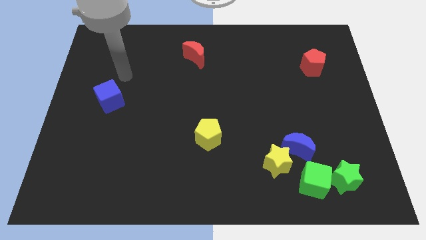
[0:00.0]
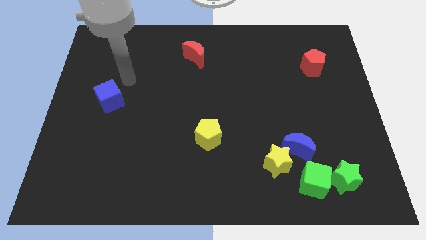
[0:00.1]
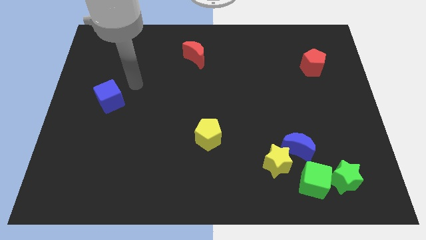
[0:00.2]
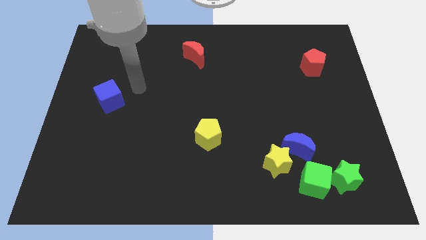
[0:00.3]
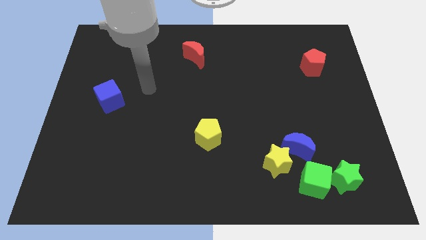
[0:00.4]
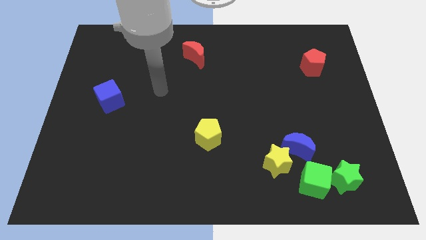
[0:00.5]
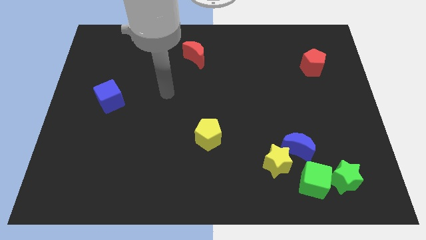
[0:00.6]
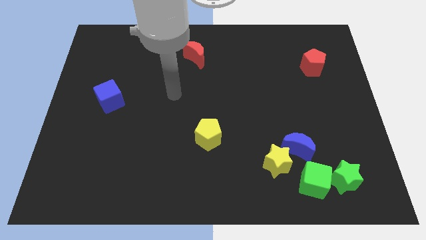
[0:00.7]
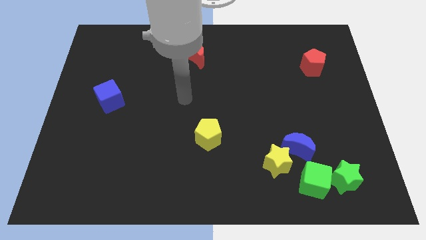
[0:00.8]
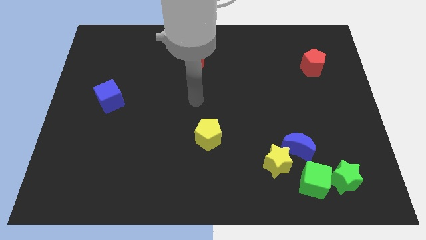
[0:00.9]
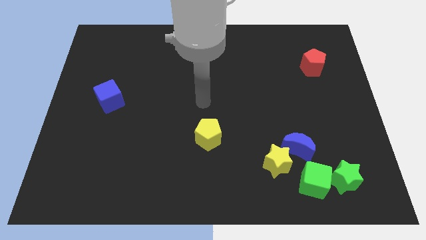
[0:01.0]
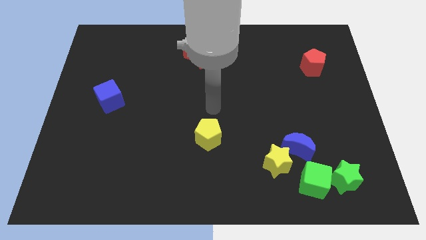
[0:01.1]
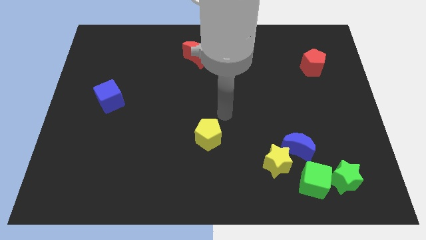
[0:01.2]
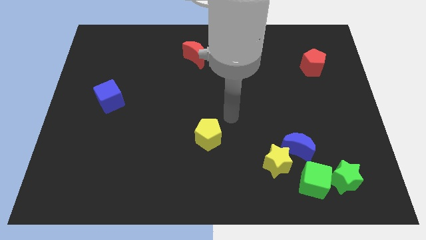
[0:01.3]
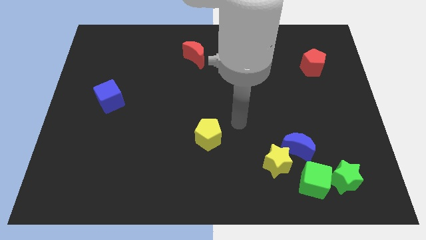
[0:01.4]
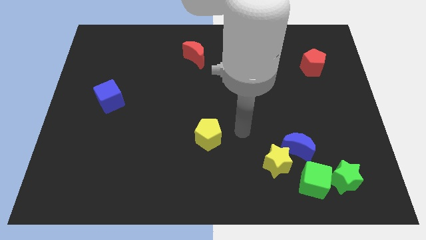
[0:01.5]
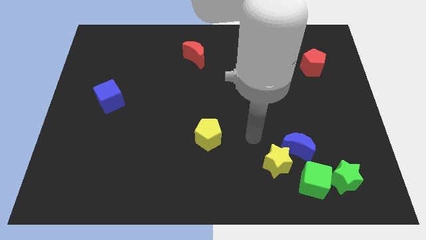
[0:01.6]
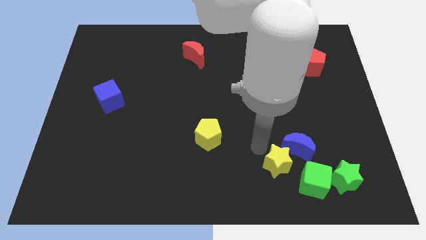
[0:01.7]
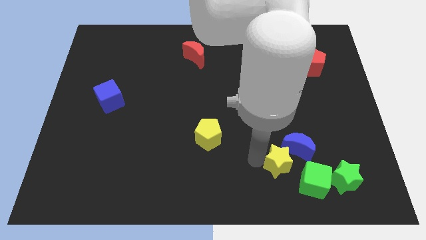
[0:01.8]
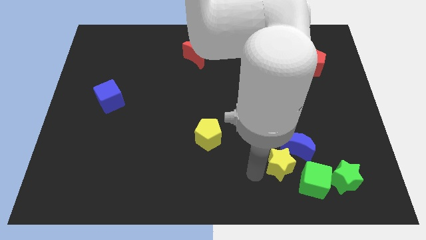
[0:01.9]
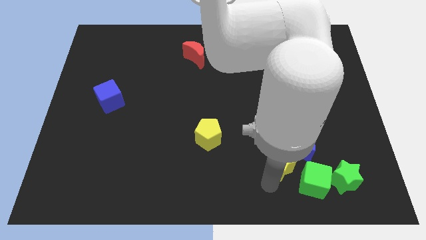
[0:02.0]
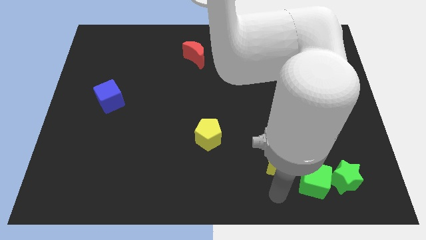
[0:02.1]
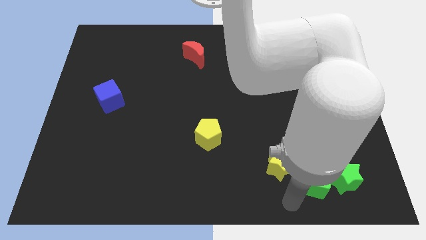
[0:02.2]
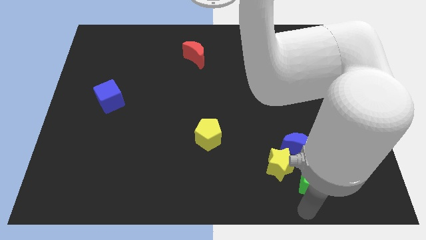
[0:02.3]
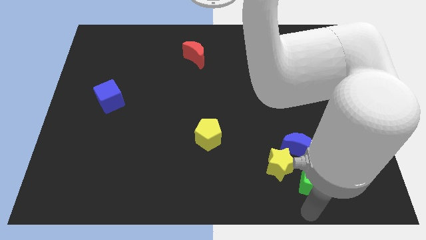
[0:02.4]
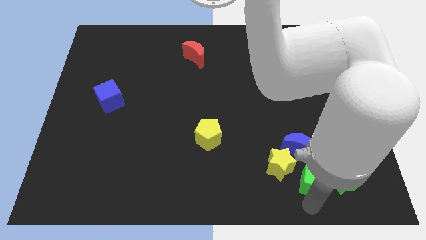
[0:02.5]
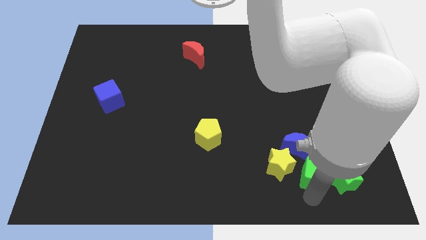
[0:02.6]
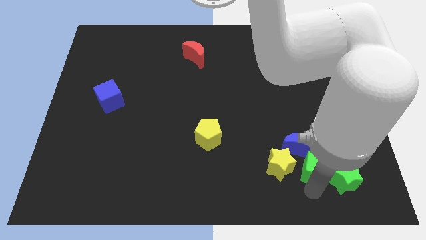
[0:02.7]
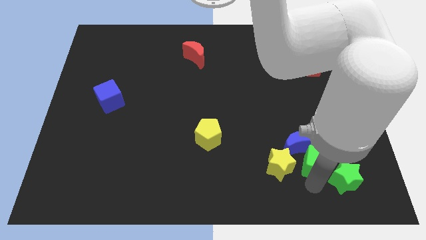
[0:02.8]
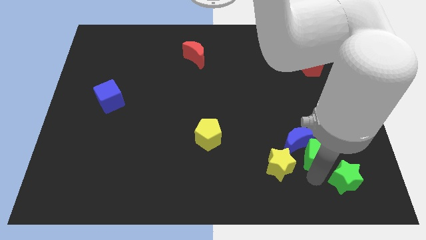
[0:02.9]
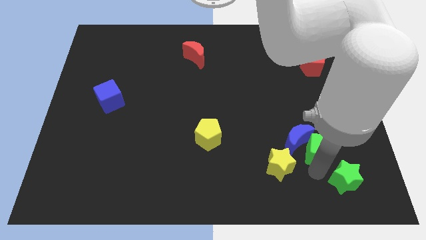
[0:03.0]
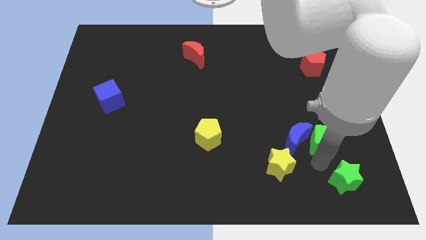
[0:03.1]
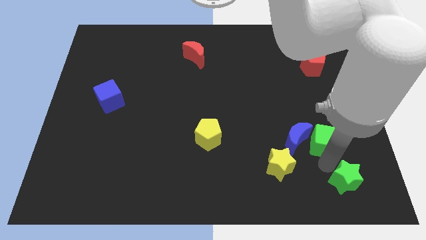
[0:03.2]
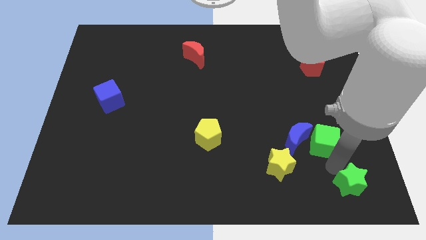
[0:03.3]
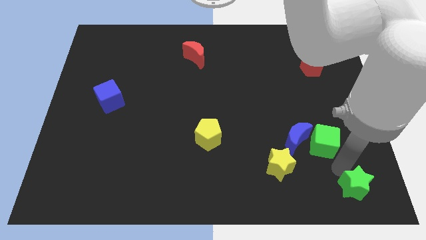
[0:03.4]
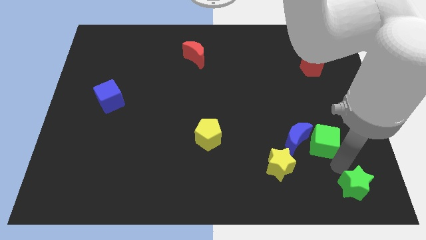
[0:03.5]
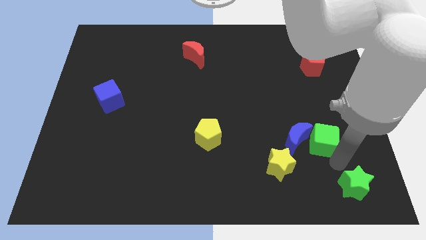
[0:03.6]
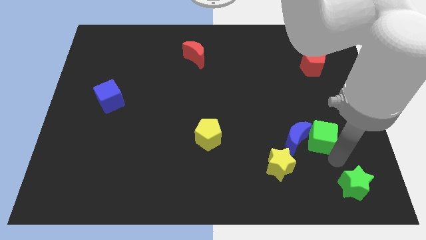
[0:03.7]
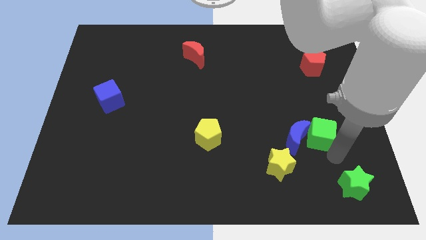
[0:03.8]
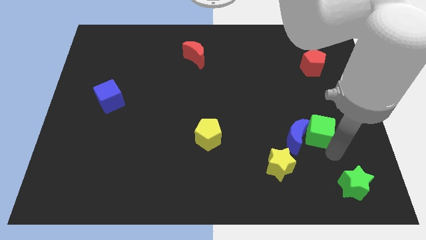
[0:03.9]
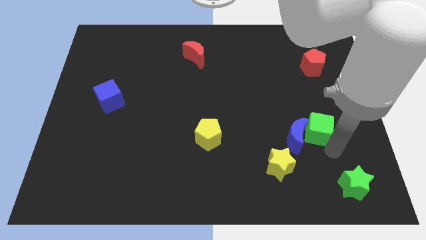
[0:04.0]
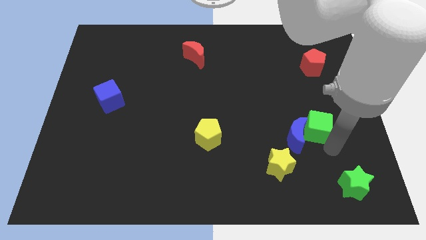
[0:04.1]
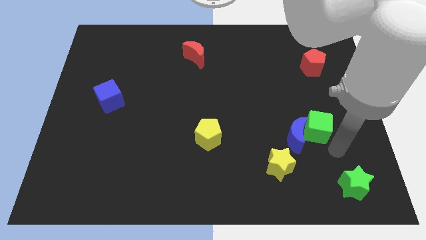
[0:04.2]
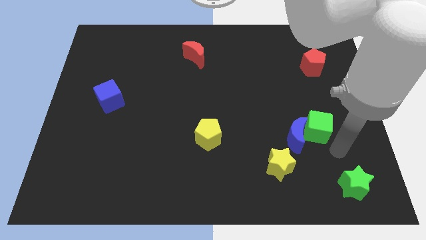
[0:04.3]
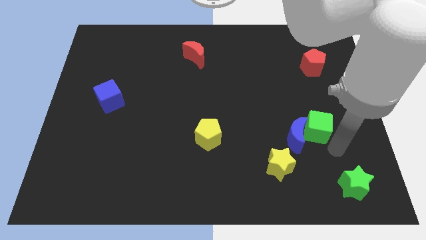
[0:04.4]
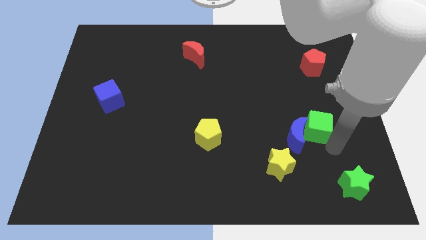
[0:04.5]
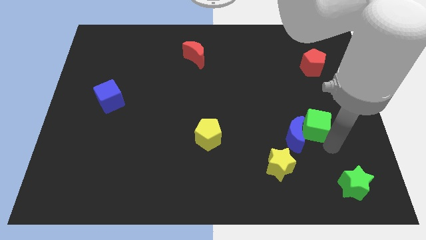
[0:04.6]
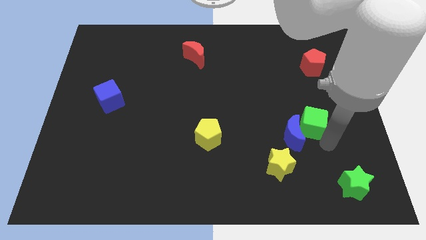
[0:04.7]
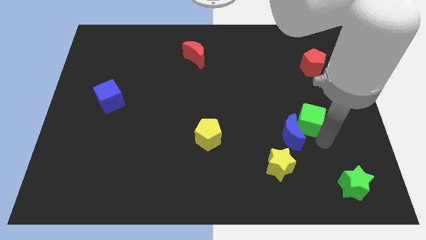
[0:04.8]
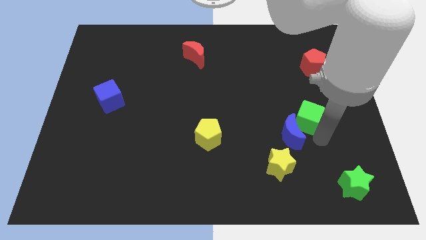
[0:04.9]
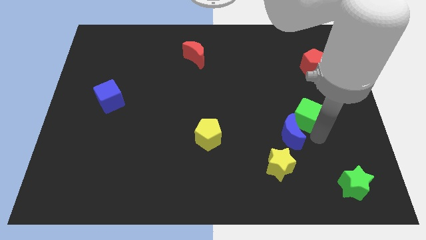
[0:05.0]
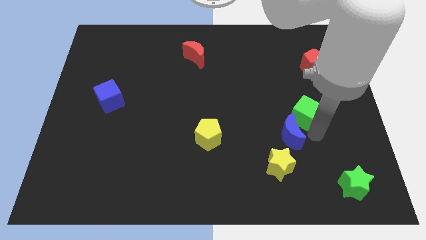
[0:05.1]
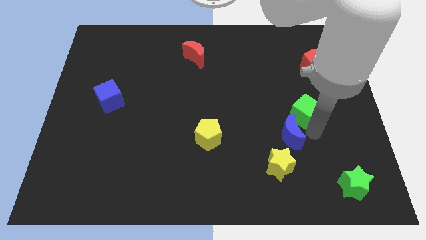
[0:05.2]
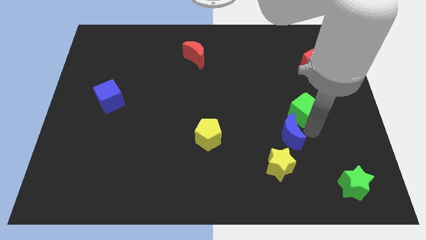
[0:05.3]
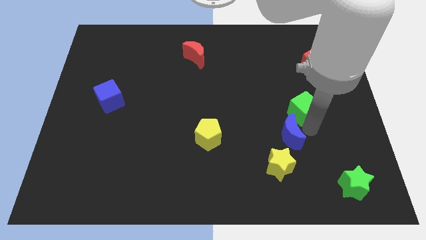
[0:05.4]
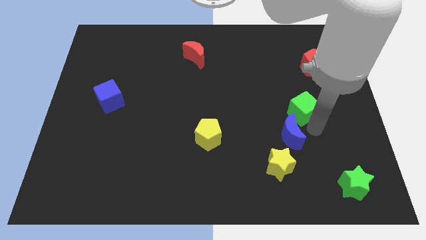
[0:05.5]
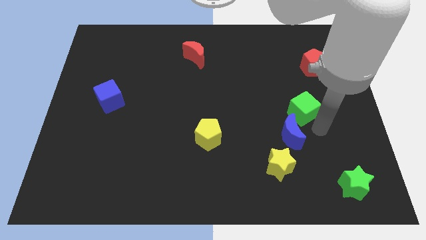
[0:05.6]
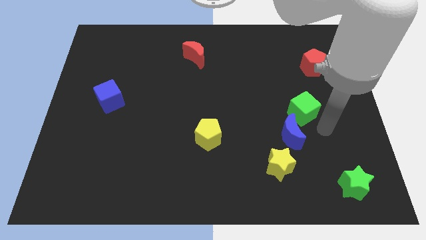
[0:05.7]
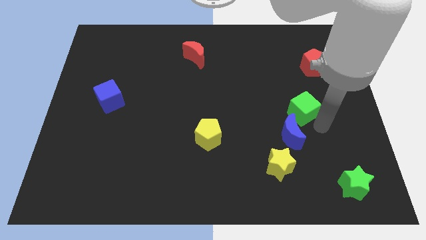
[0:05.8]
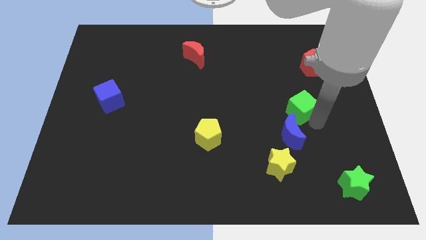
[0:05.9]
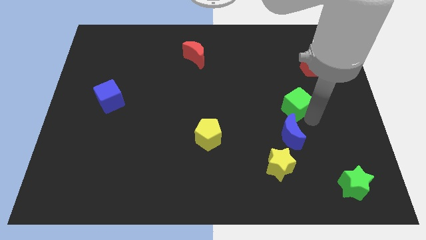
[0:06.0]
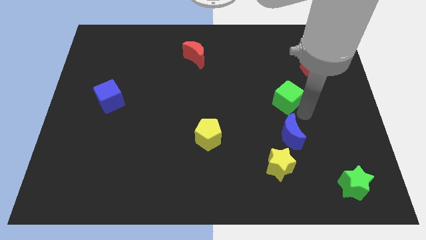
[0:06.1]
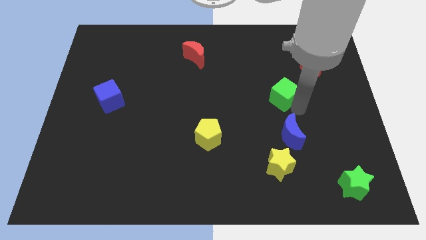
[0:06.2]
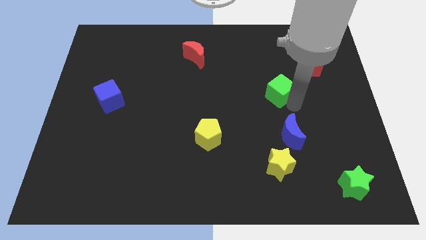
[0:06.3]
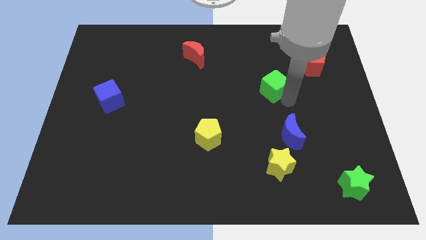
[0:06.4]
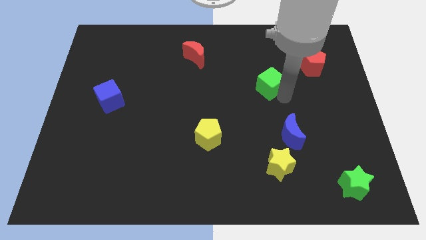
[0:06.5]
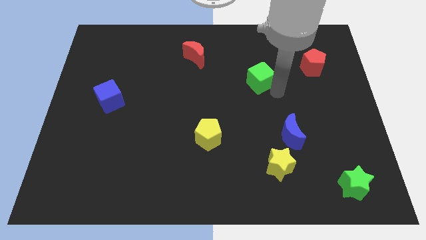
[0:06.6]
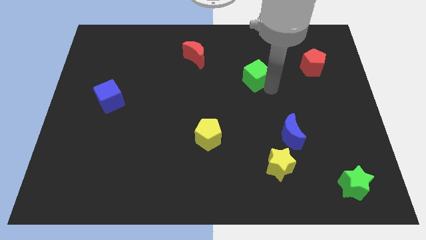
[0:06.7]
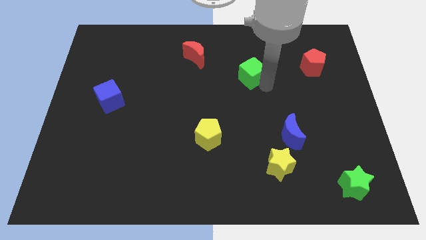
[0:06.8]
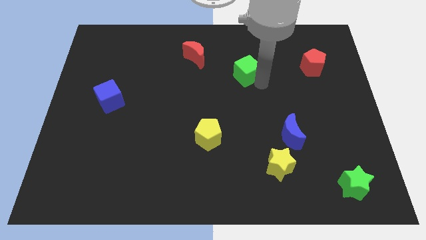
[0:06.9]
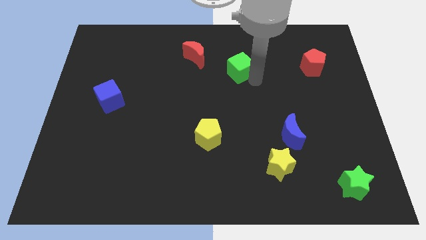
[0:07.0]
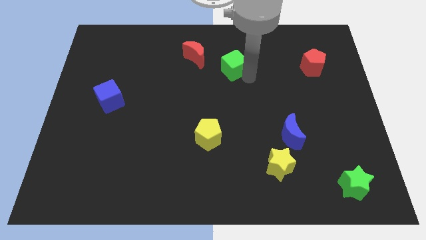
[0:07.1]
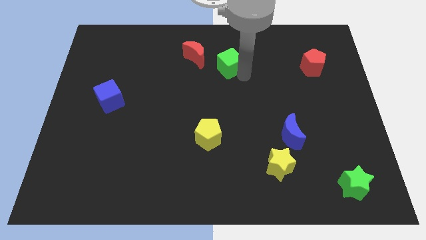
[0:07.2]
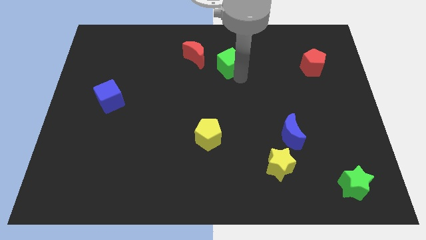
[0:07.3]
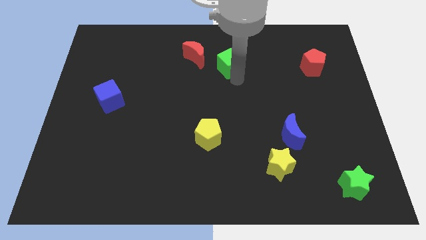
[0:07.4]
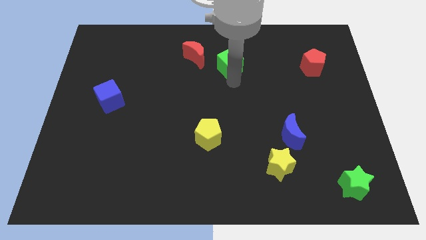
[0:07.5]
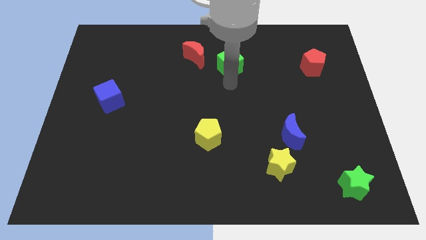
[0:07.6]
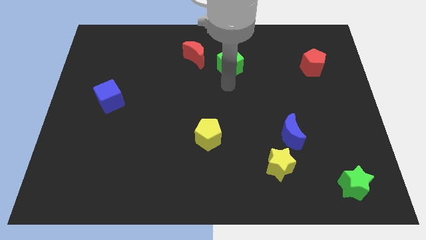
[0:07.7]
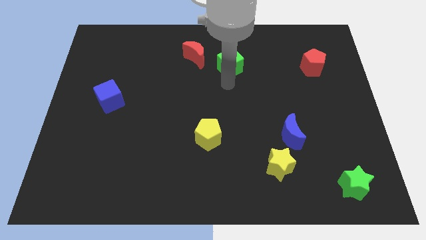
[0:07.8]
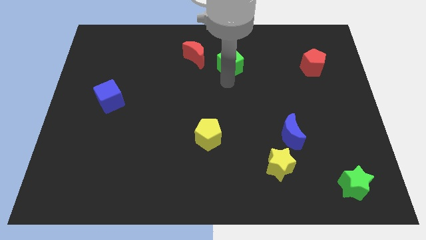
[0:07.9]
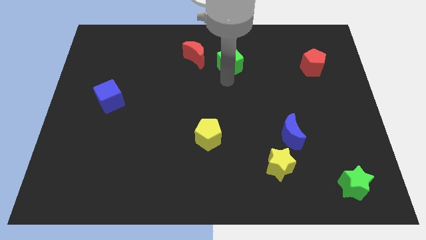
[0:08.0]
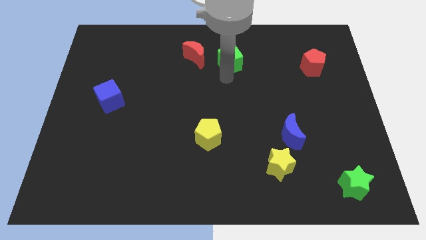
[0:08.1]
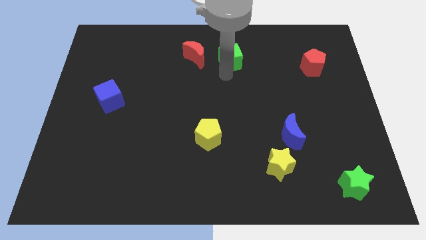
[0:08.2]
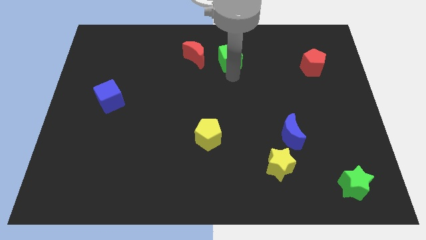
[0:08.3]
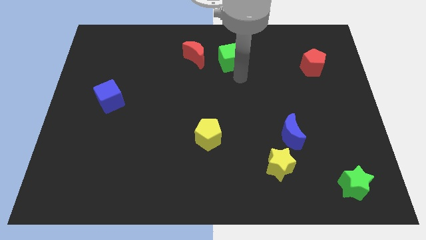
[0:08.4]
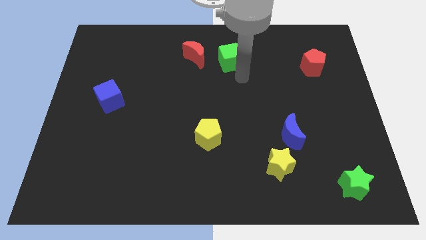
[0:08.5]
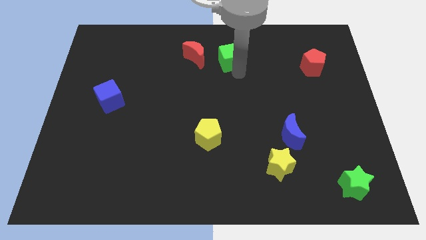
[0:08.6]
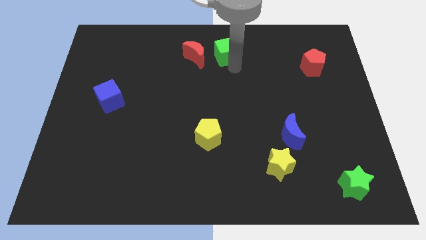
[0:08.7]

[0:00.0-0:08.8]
move the green cube to the top
